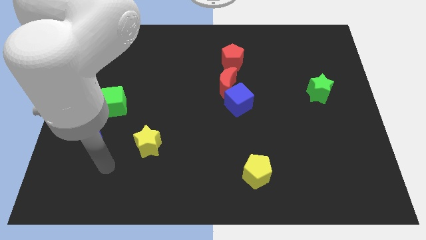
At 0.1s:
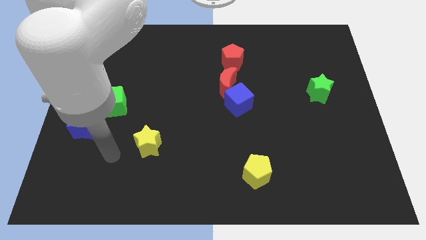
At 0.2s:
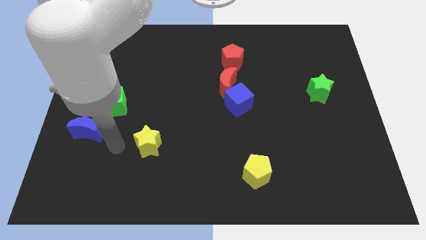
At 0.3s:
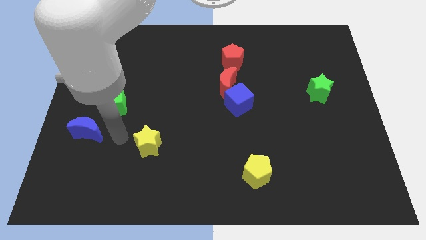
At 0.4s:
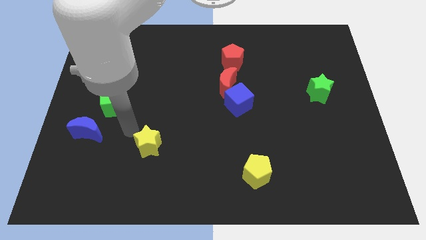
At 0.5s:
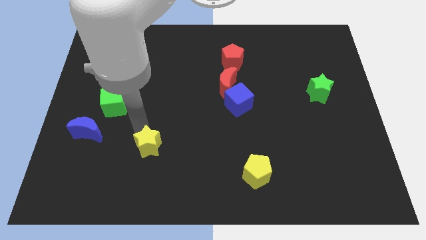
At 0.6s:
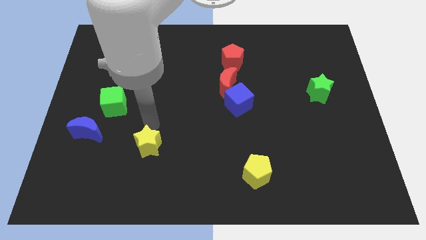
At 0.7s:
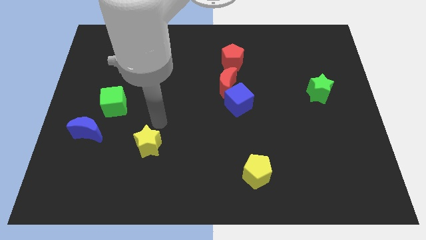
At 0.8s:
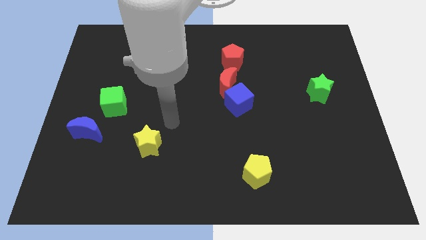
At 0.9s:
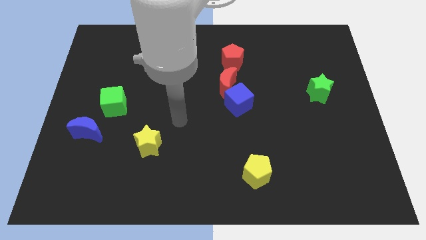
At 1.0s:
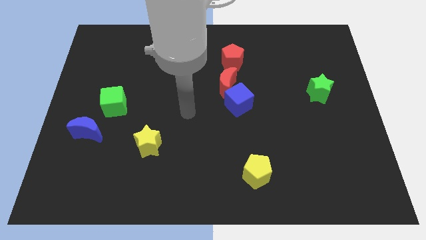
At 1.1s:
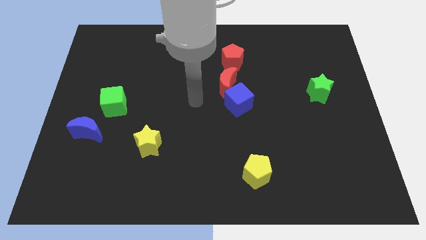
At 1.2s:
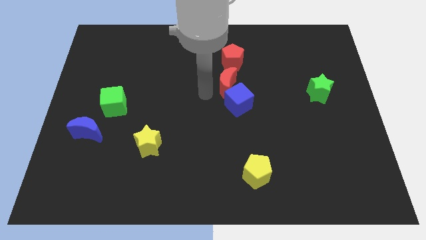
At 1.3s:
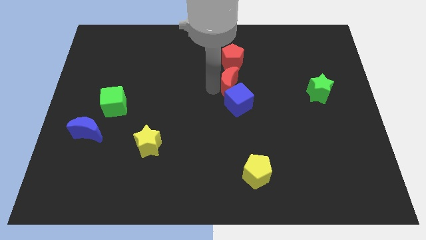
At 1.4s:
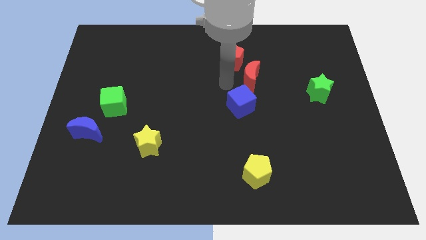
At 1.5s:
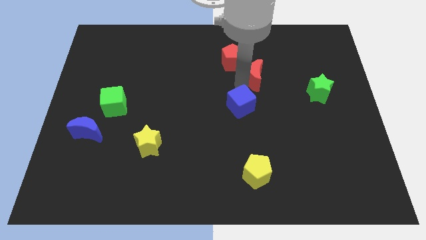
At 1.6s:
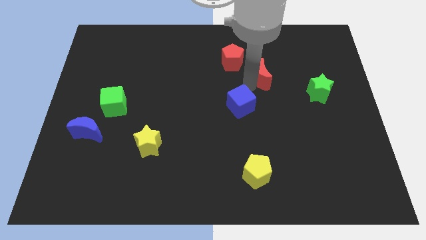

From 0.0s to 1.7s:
separate the blue cube from the red moon

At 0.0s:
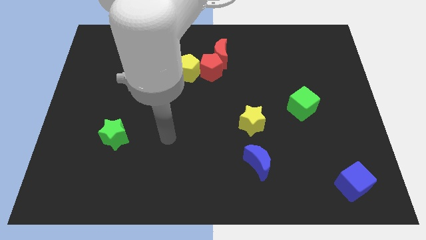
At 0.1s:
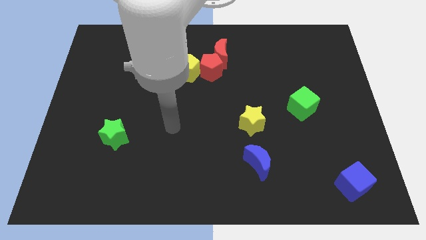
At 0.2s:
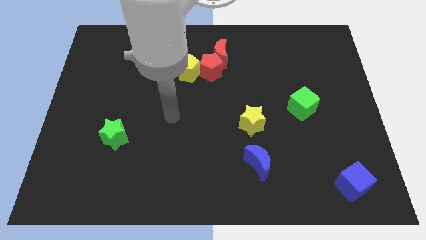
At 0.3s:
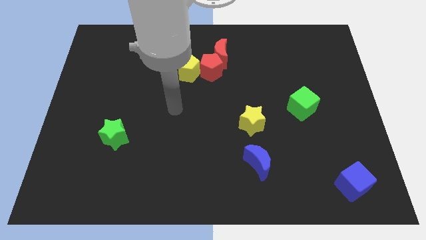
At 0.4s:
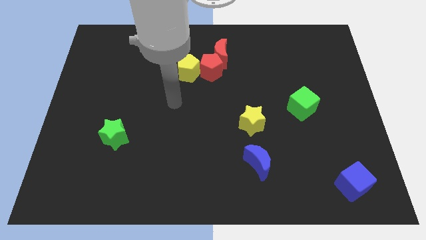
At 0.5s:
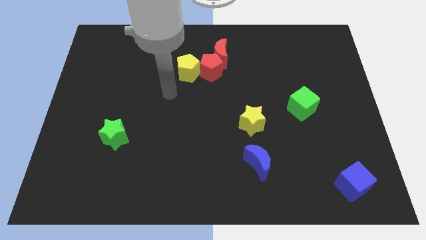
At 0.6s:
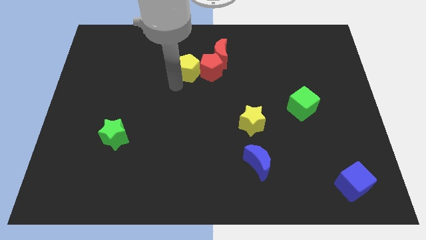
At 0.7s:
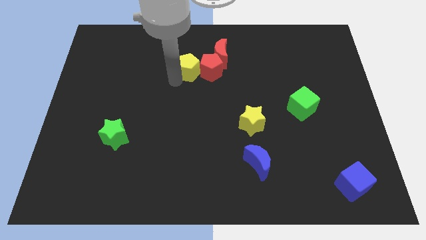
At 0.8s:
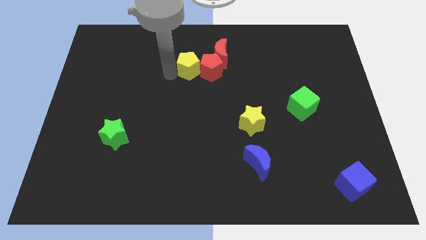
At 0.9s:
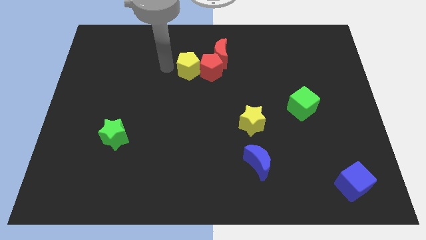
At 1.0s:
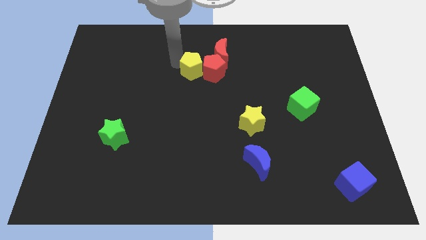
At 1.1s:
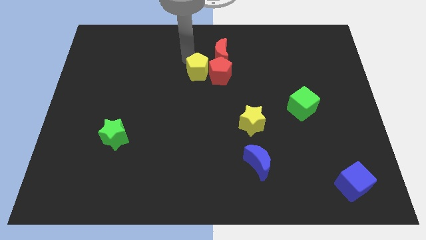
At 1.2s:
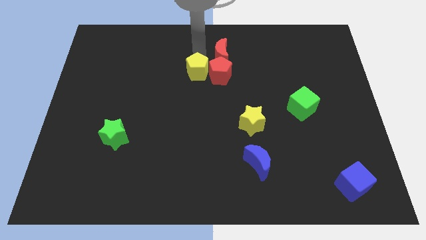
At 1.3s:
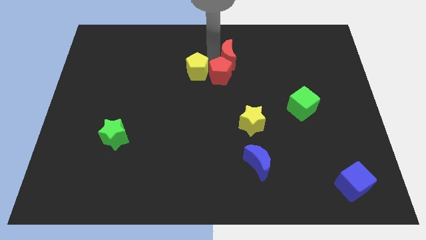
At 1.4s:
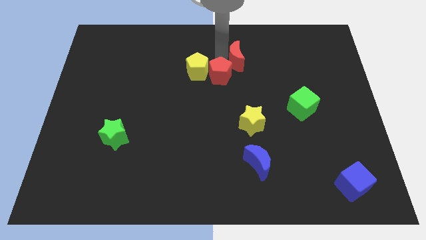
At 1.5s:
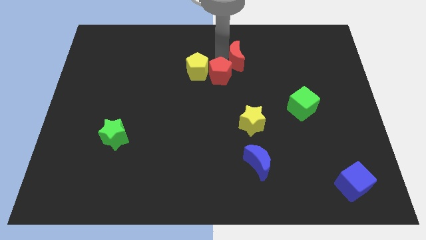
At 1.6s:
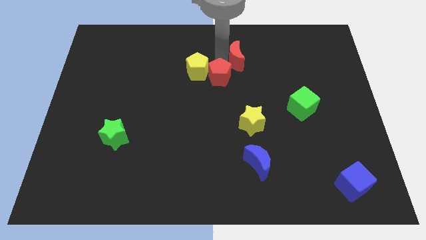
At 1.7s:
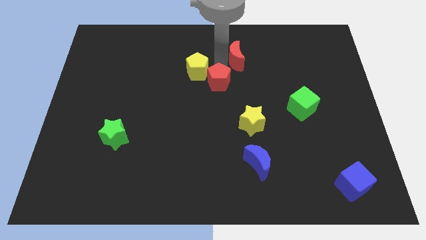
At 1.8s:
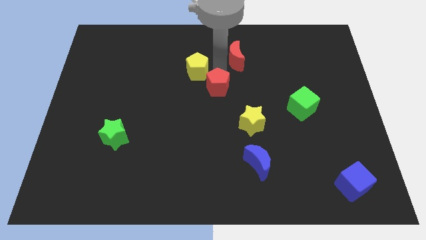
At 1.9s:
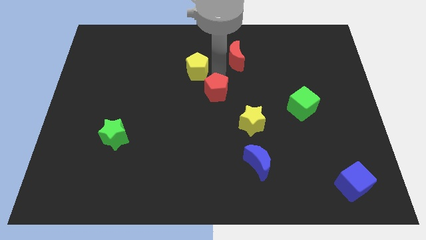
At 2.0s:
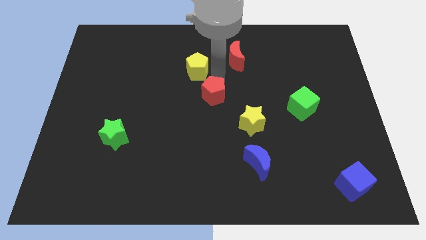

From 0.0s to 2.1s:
move the red pentagon away from the red moon and yellow pentagon

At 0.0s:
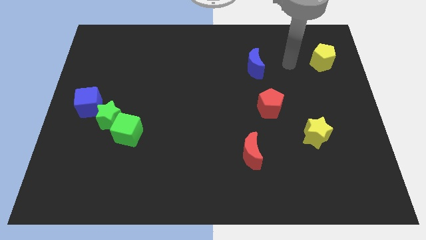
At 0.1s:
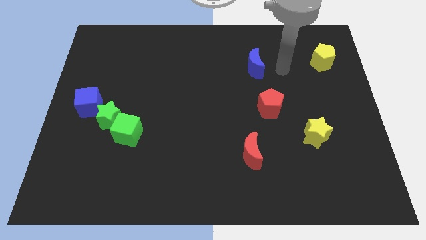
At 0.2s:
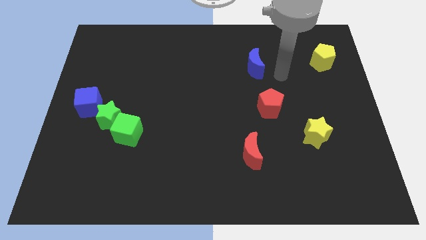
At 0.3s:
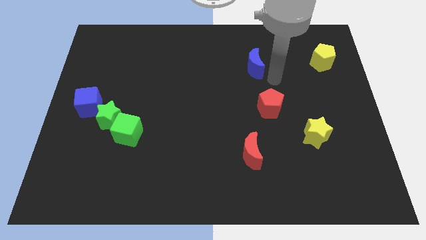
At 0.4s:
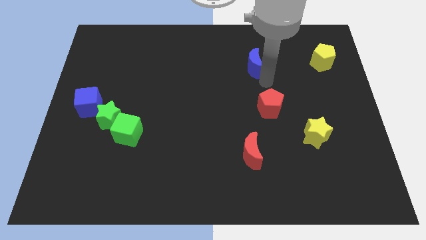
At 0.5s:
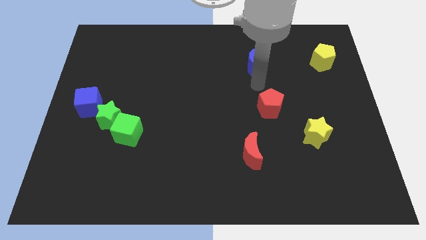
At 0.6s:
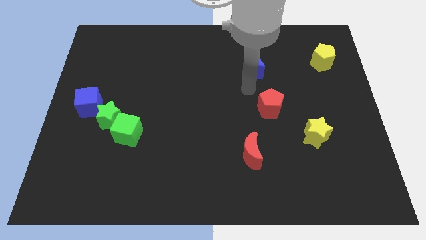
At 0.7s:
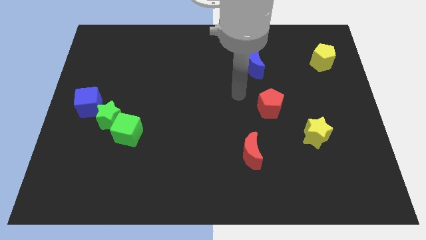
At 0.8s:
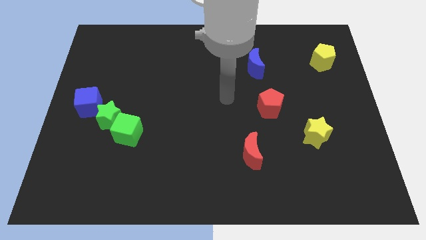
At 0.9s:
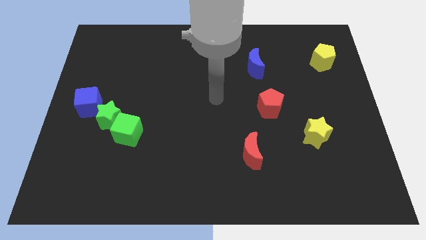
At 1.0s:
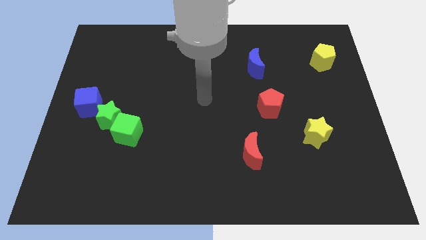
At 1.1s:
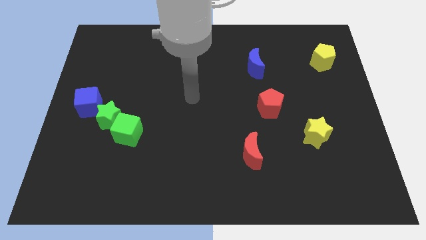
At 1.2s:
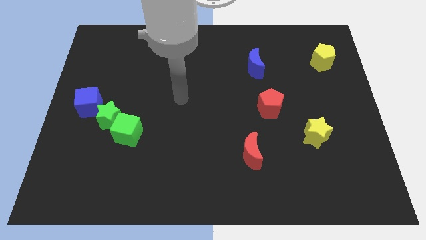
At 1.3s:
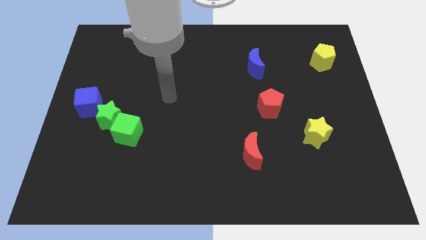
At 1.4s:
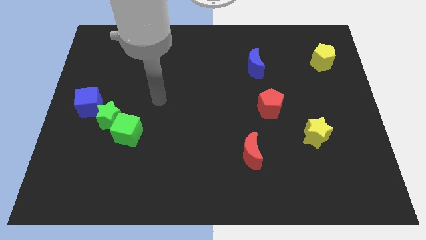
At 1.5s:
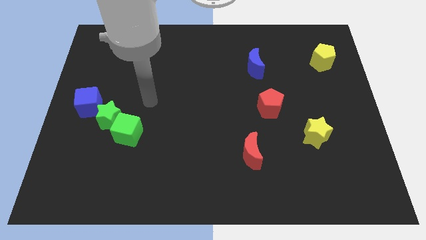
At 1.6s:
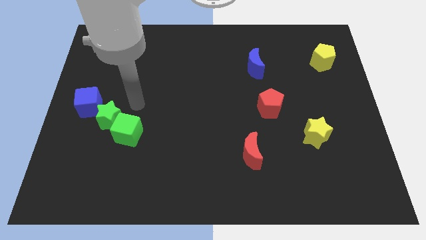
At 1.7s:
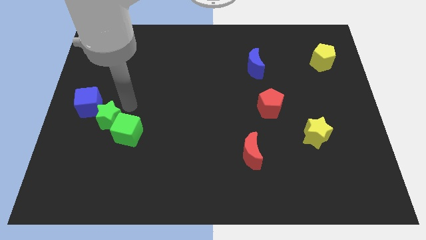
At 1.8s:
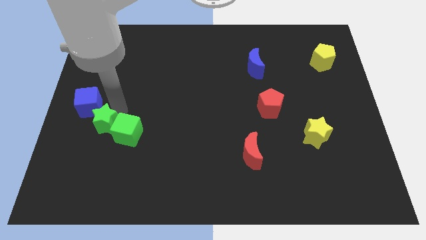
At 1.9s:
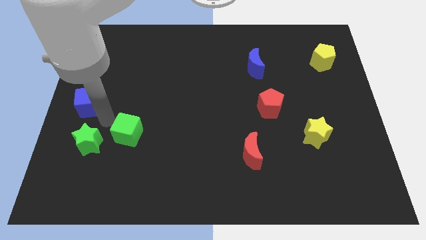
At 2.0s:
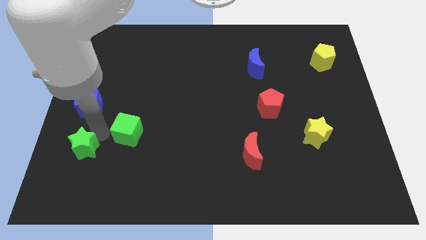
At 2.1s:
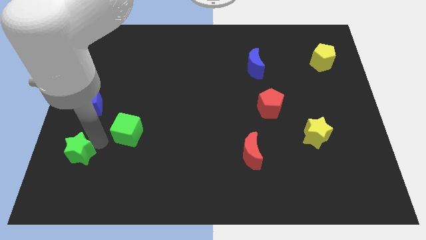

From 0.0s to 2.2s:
move the green cube away from the green star

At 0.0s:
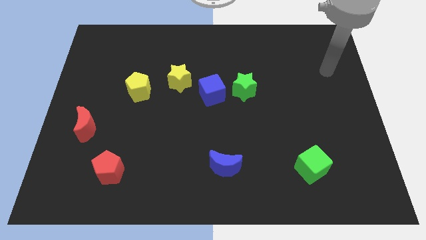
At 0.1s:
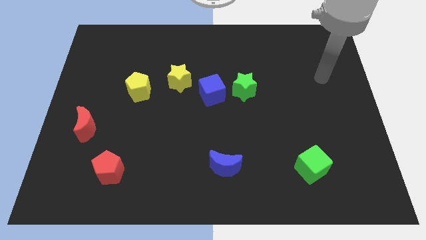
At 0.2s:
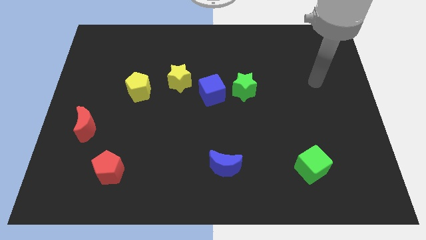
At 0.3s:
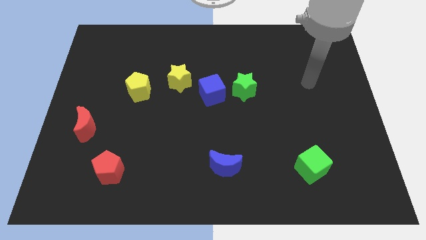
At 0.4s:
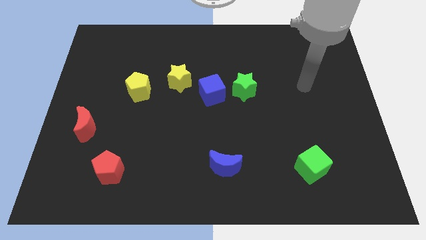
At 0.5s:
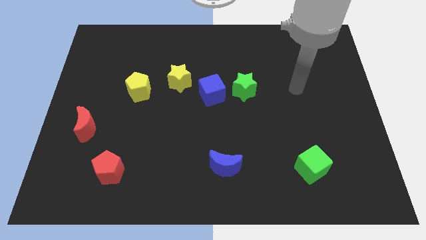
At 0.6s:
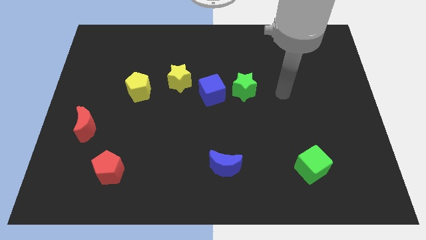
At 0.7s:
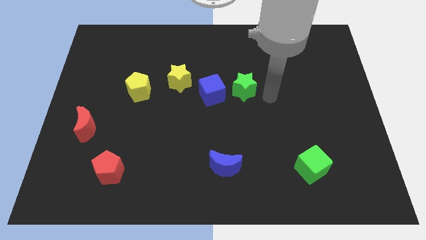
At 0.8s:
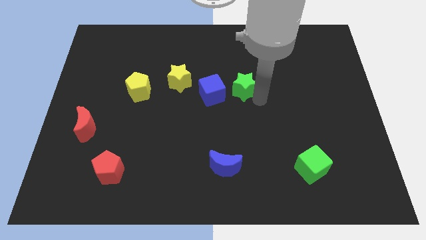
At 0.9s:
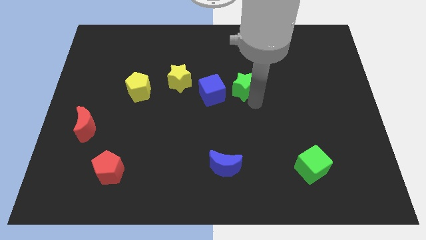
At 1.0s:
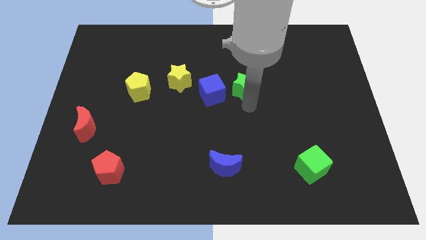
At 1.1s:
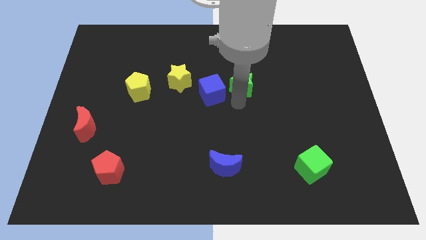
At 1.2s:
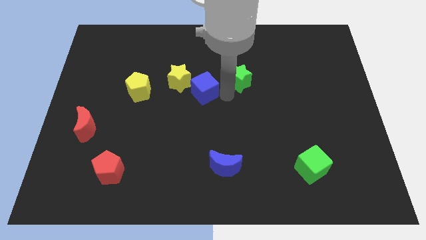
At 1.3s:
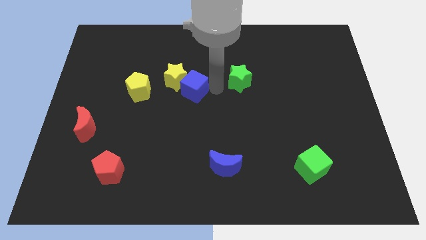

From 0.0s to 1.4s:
move the green star away from the blue cube

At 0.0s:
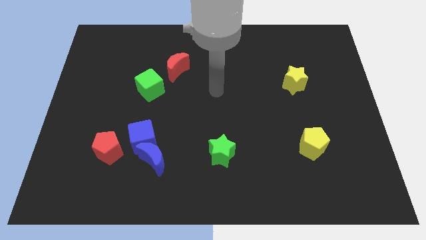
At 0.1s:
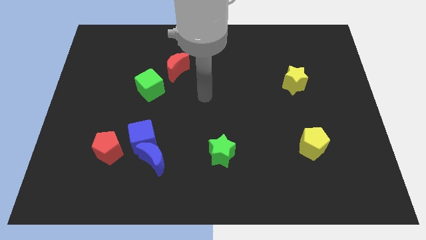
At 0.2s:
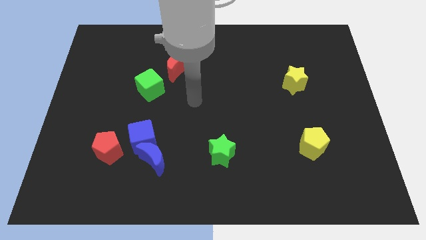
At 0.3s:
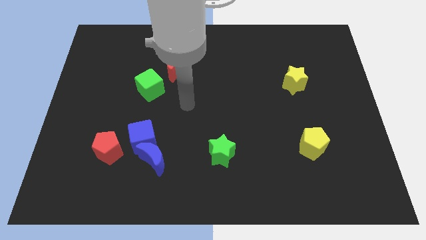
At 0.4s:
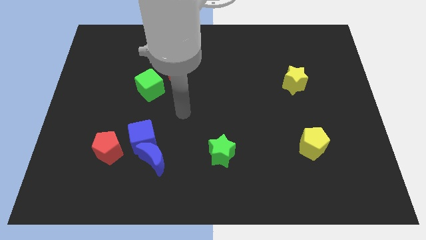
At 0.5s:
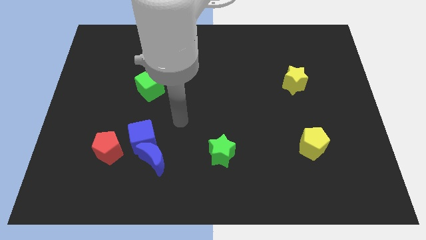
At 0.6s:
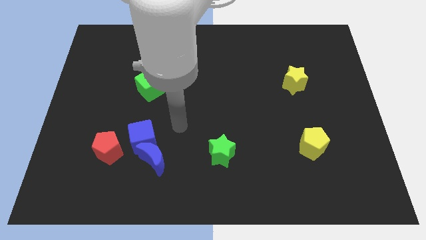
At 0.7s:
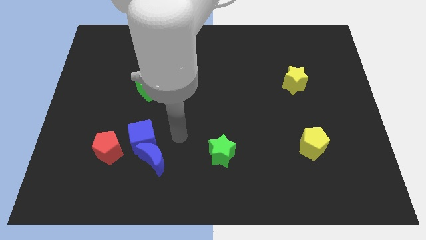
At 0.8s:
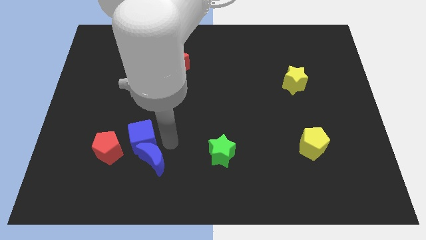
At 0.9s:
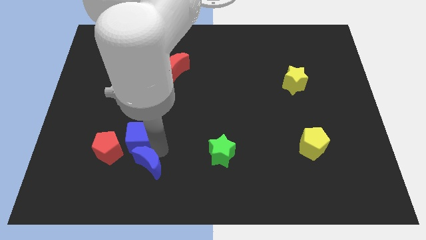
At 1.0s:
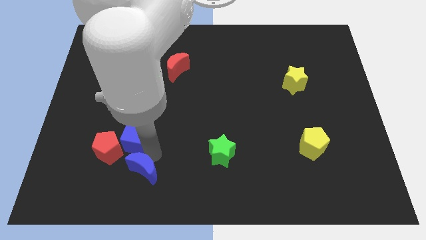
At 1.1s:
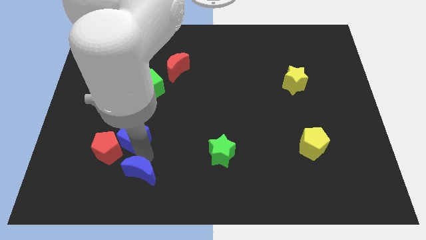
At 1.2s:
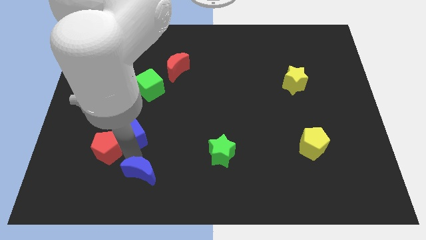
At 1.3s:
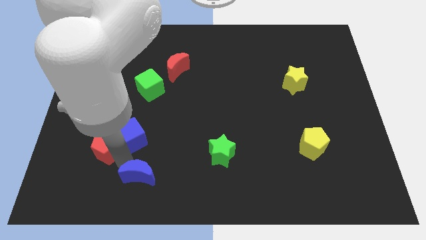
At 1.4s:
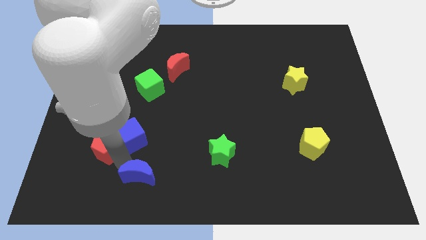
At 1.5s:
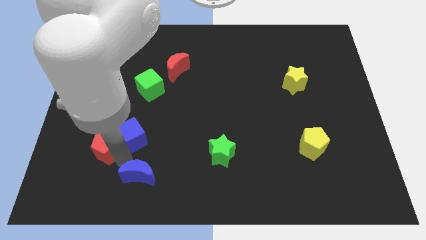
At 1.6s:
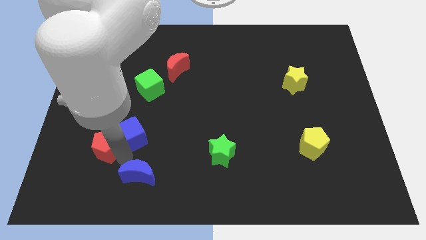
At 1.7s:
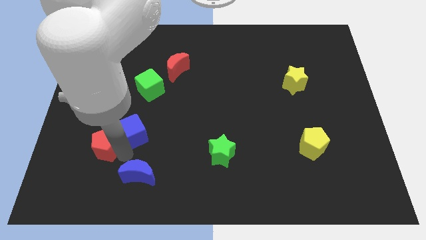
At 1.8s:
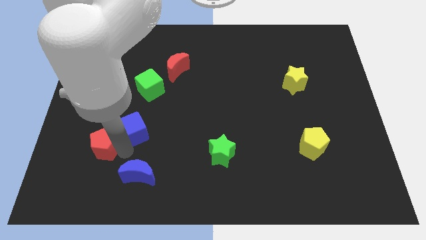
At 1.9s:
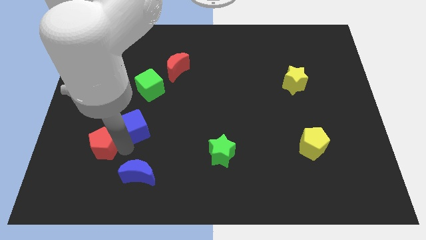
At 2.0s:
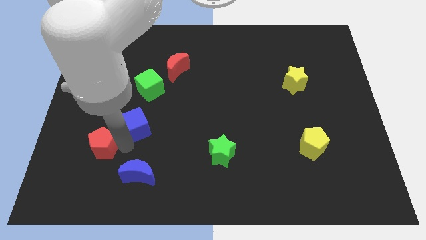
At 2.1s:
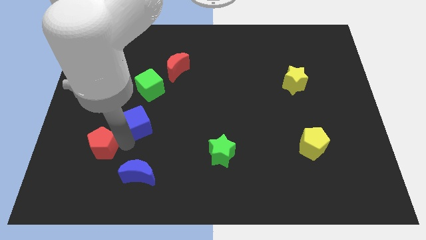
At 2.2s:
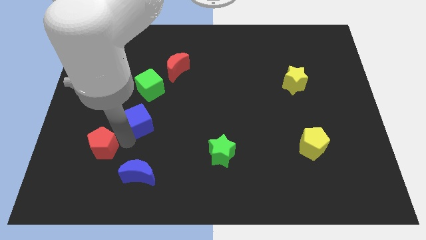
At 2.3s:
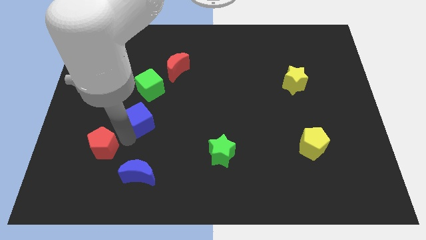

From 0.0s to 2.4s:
separate the blue cube from the blue moon and red pentagon
